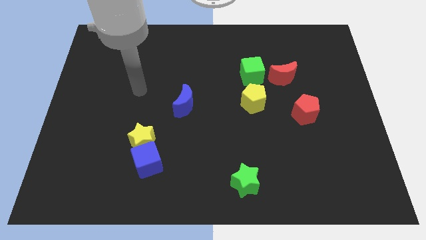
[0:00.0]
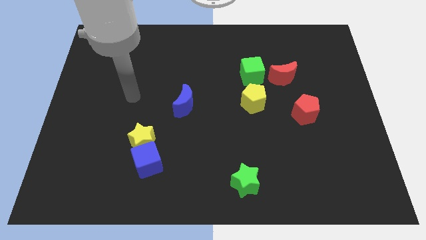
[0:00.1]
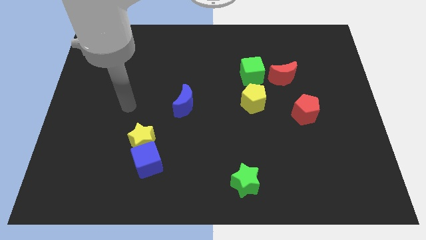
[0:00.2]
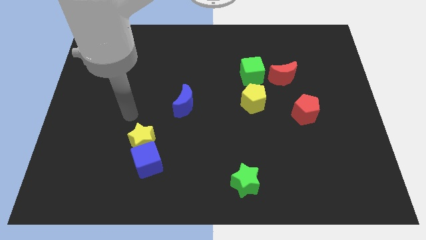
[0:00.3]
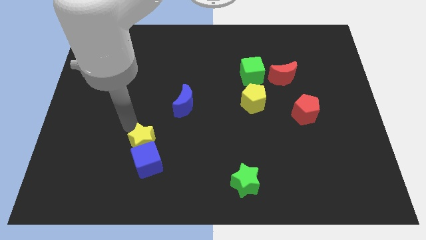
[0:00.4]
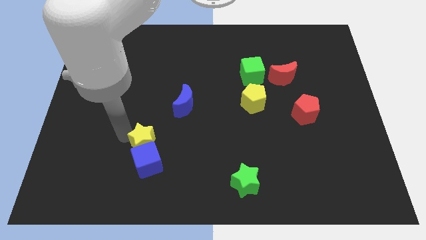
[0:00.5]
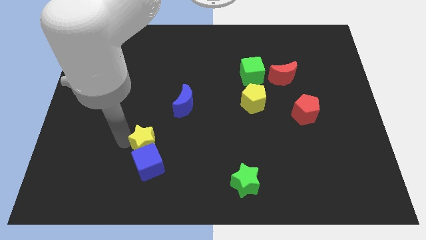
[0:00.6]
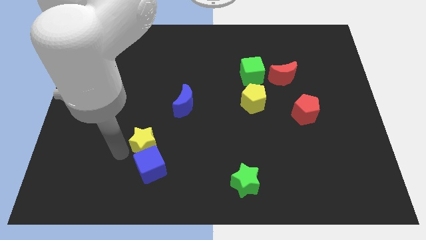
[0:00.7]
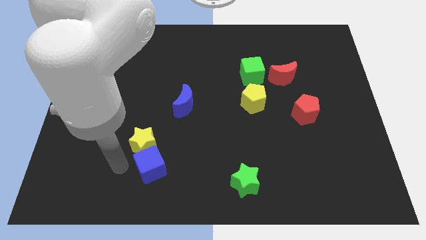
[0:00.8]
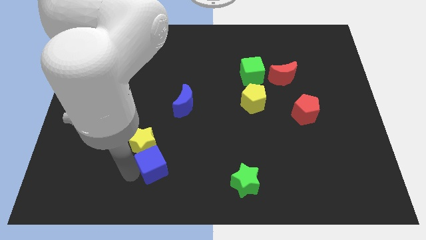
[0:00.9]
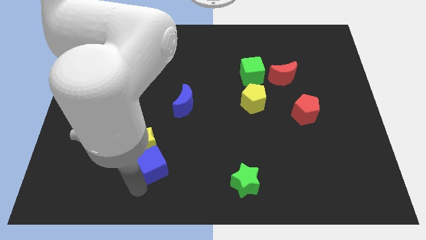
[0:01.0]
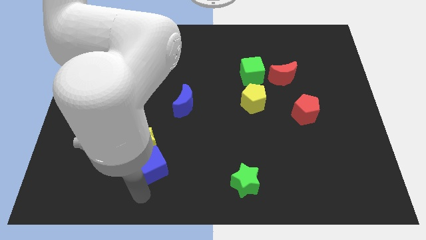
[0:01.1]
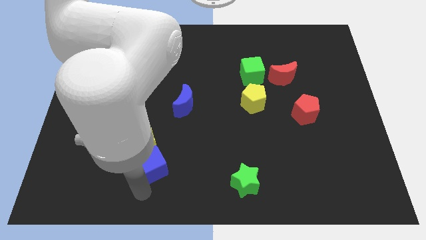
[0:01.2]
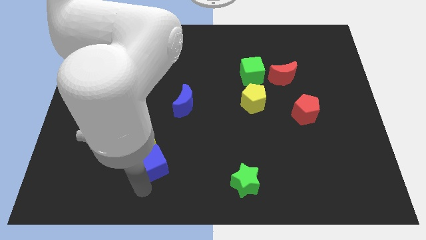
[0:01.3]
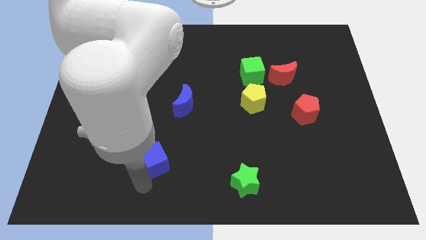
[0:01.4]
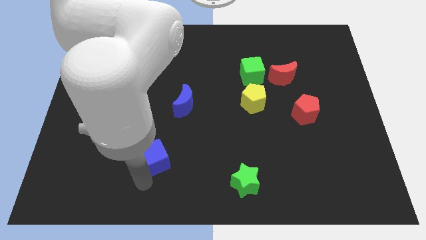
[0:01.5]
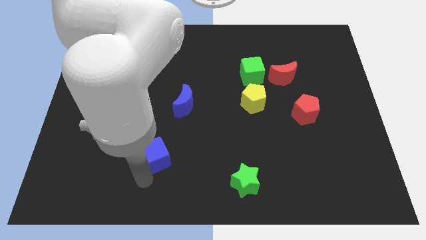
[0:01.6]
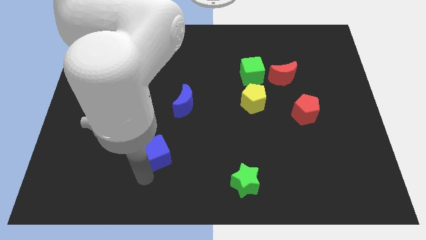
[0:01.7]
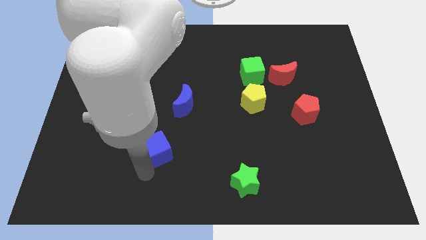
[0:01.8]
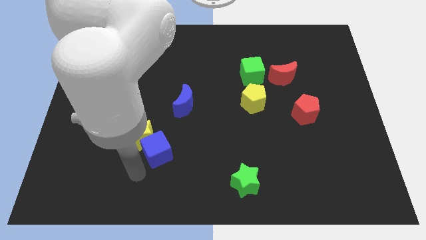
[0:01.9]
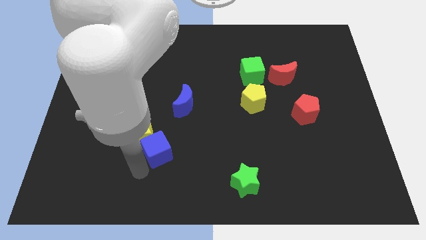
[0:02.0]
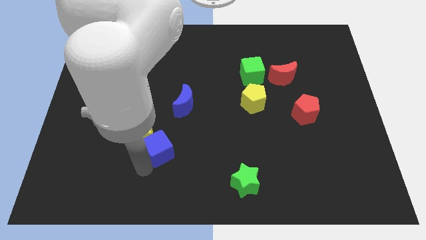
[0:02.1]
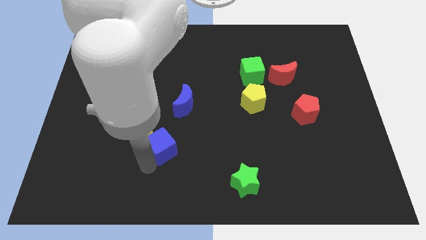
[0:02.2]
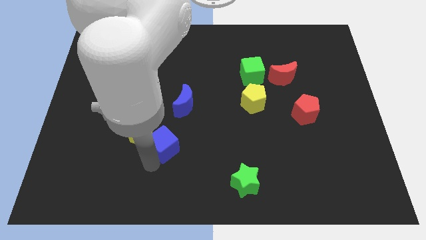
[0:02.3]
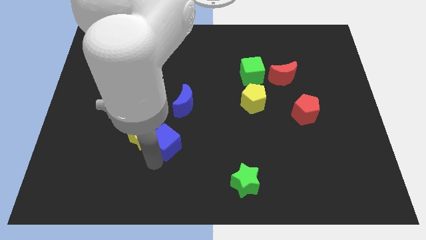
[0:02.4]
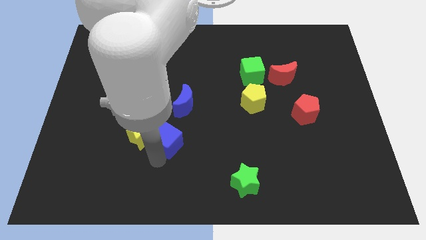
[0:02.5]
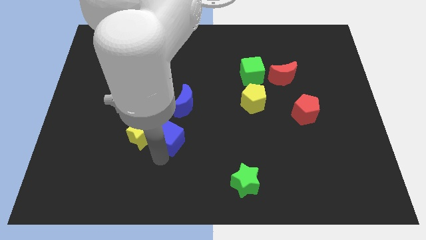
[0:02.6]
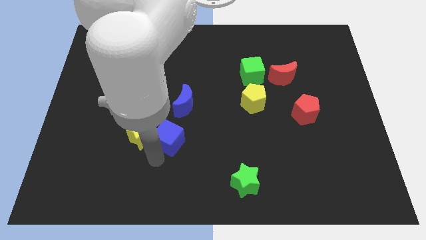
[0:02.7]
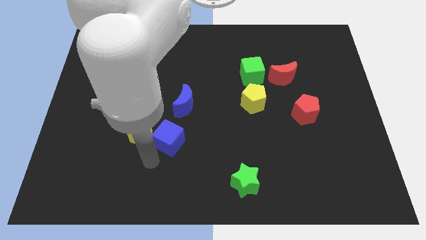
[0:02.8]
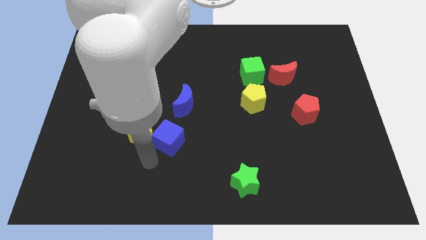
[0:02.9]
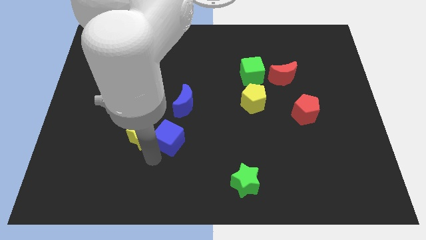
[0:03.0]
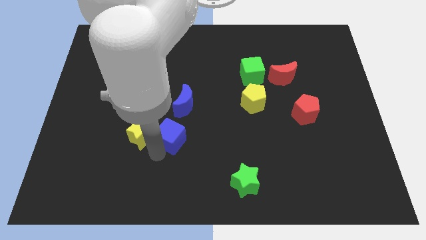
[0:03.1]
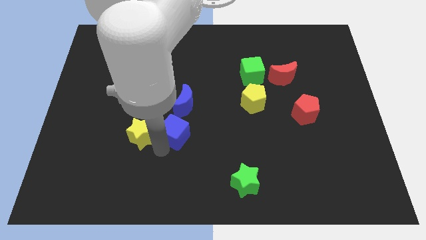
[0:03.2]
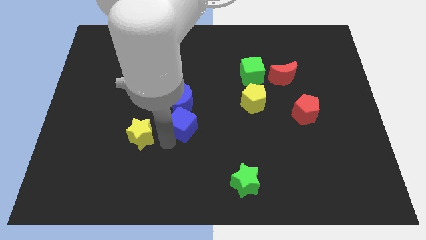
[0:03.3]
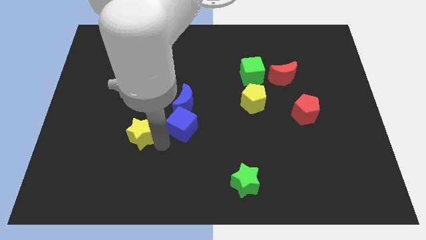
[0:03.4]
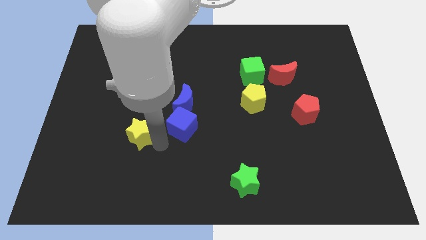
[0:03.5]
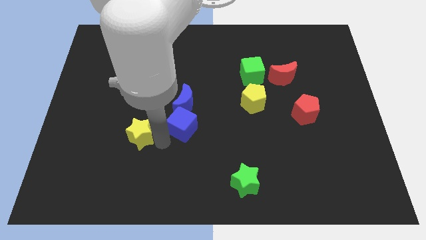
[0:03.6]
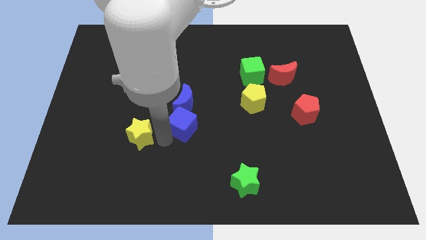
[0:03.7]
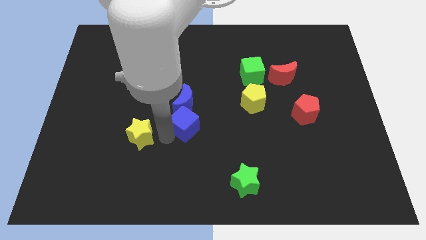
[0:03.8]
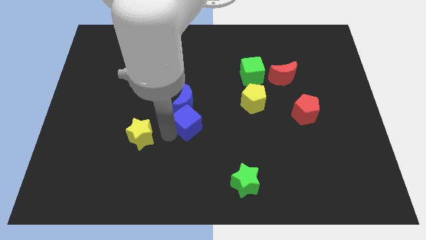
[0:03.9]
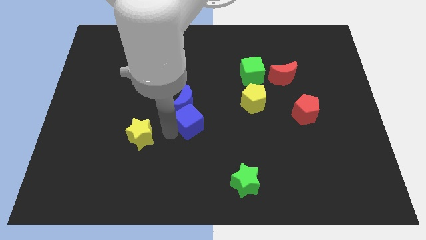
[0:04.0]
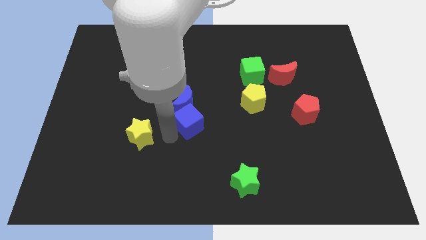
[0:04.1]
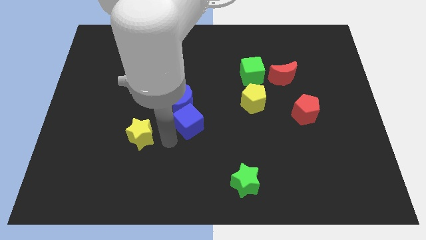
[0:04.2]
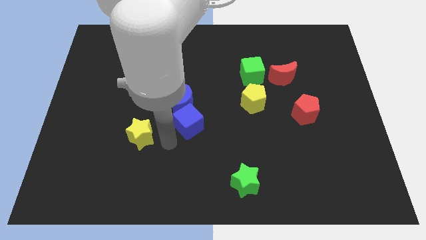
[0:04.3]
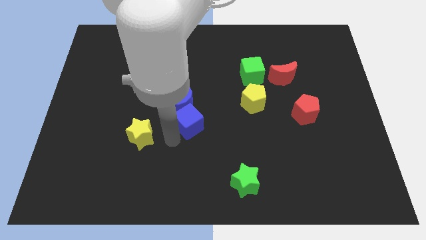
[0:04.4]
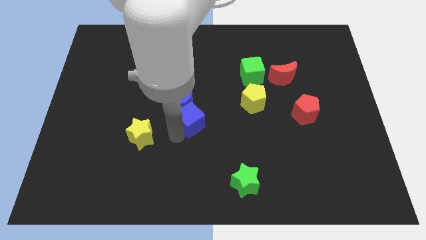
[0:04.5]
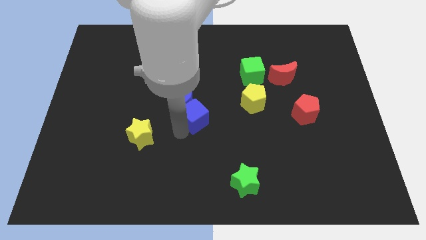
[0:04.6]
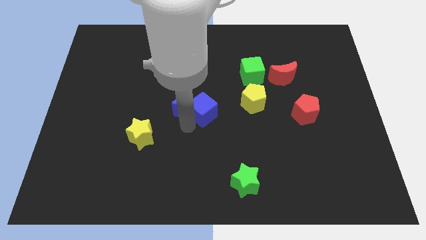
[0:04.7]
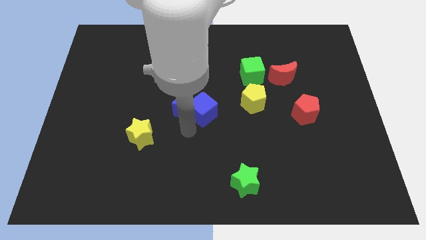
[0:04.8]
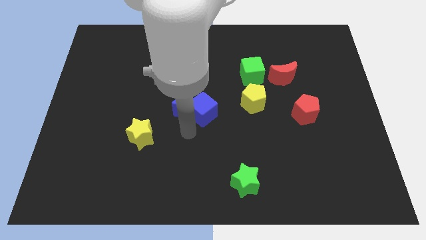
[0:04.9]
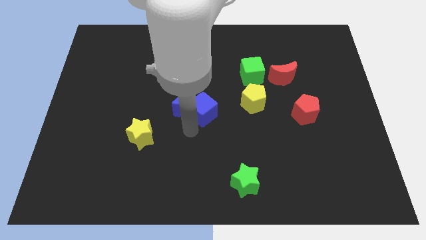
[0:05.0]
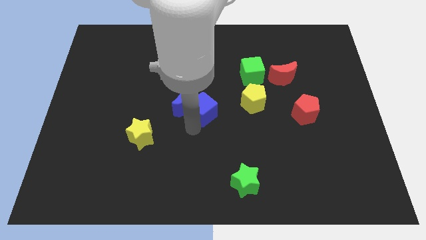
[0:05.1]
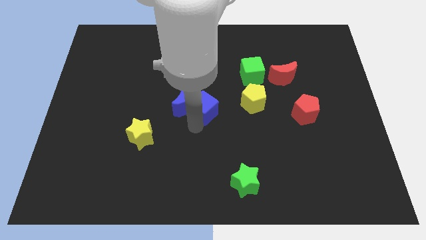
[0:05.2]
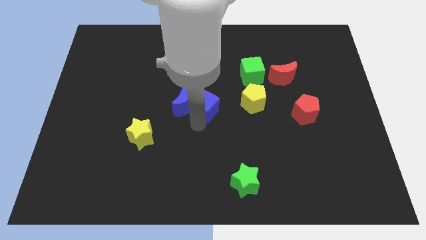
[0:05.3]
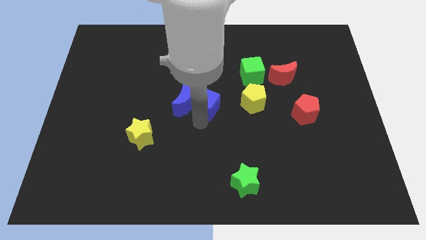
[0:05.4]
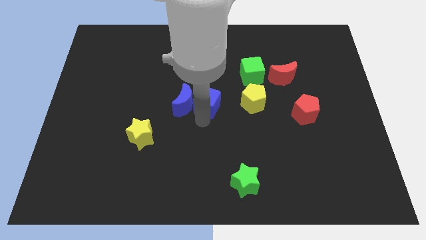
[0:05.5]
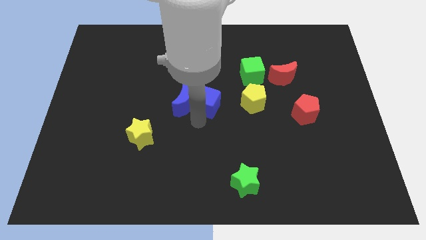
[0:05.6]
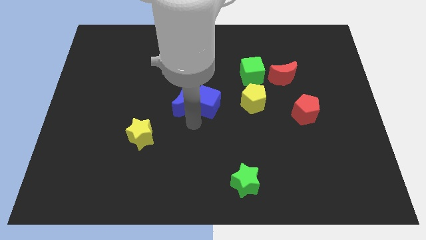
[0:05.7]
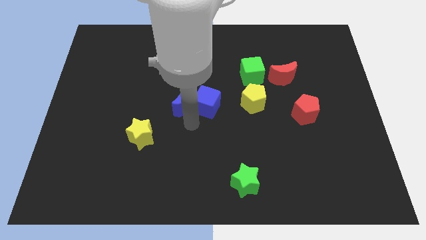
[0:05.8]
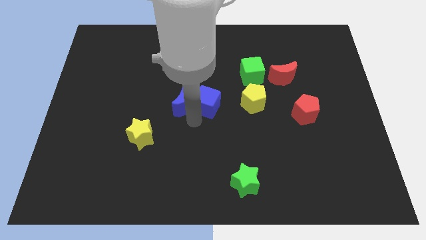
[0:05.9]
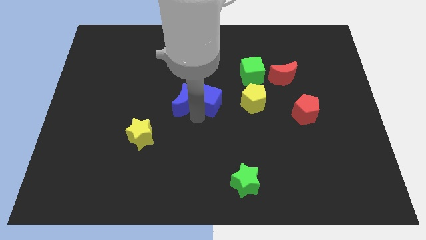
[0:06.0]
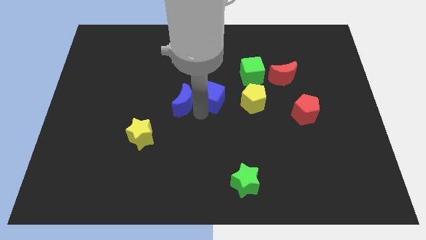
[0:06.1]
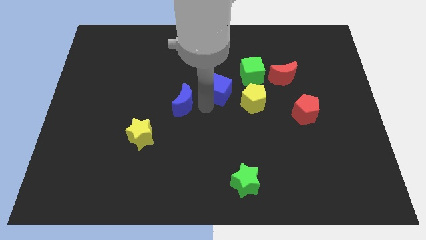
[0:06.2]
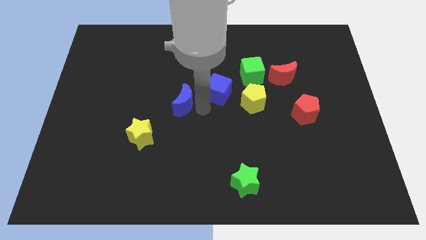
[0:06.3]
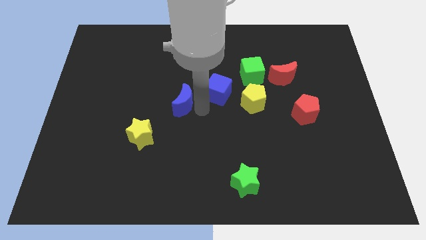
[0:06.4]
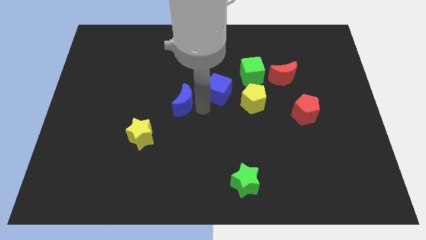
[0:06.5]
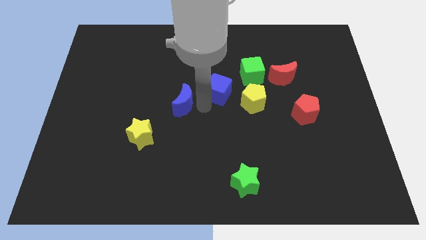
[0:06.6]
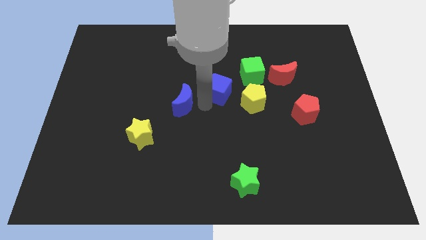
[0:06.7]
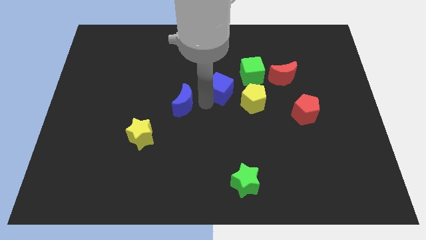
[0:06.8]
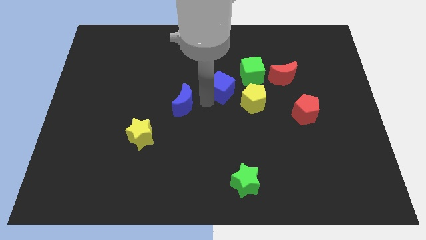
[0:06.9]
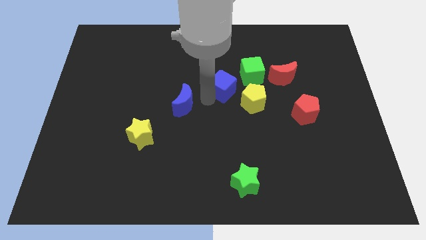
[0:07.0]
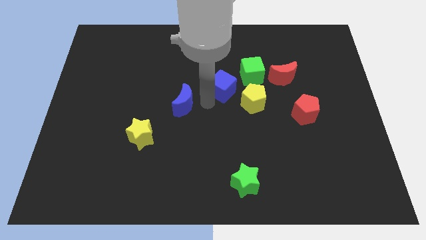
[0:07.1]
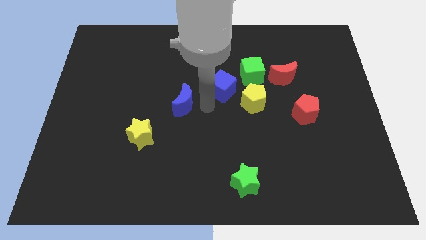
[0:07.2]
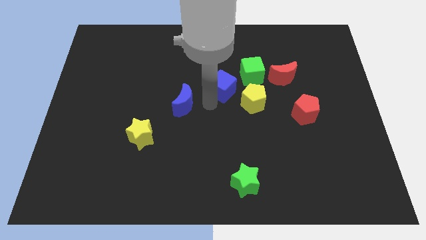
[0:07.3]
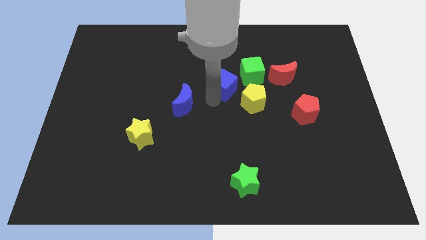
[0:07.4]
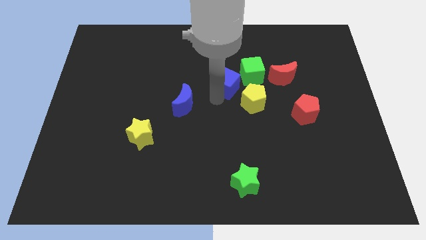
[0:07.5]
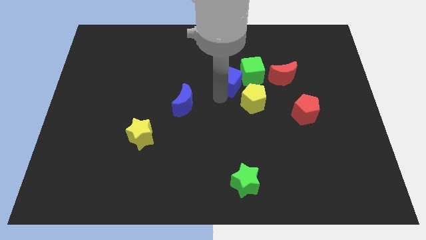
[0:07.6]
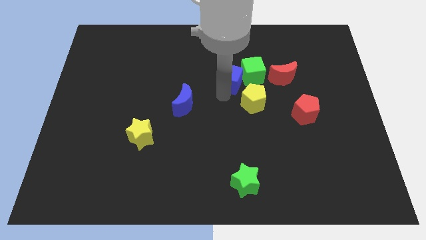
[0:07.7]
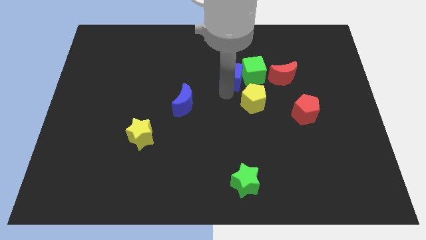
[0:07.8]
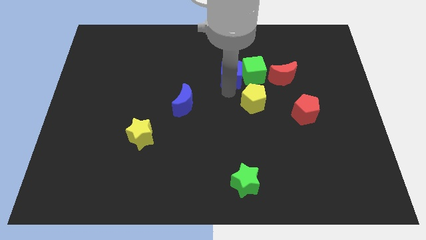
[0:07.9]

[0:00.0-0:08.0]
push the blue cube diagonally up and to the left of the green cube

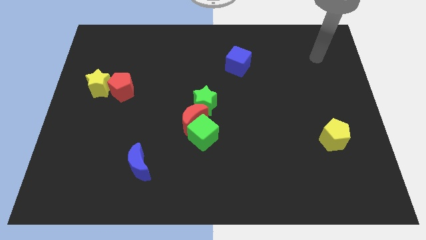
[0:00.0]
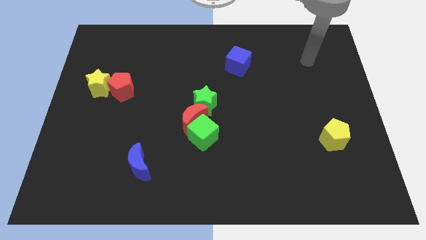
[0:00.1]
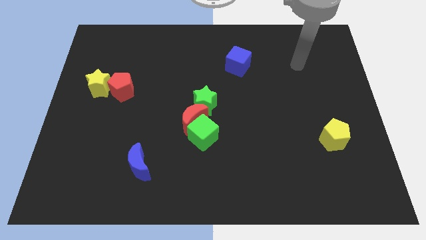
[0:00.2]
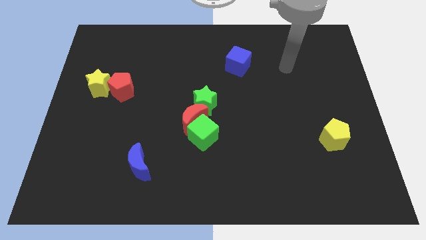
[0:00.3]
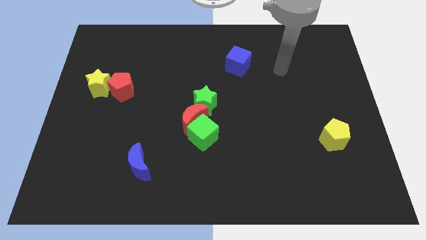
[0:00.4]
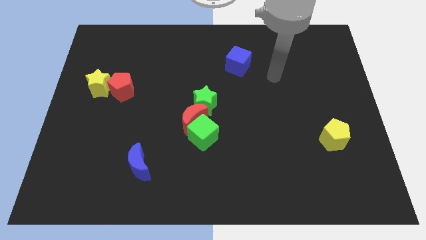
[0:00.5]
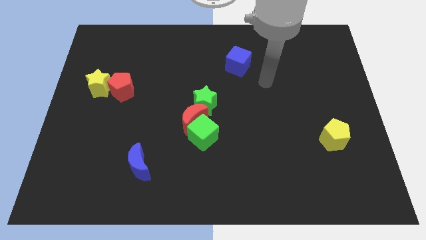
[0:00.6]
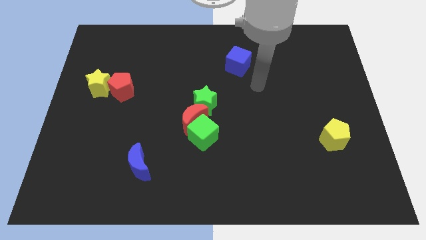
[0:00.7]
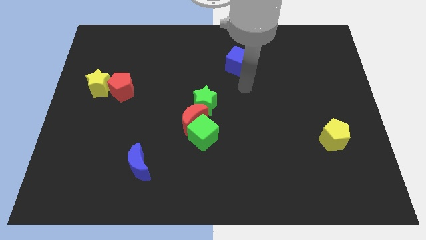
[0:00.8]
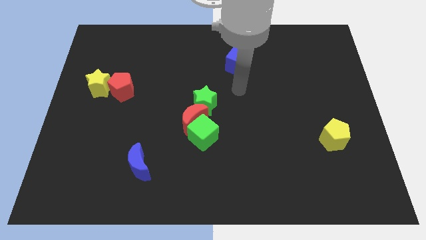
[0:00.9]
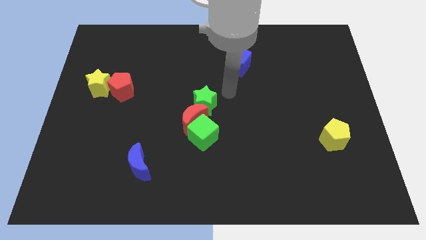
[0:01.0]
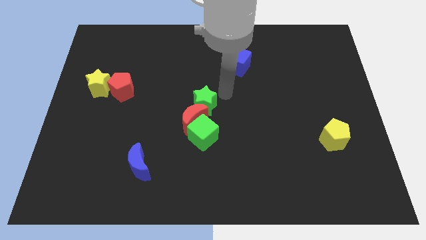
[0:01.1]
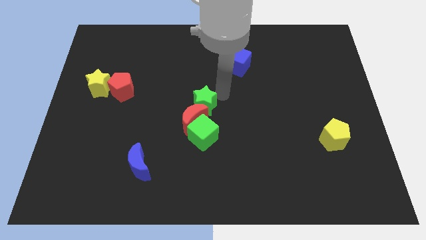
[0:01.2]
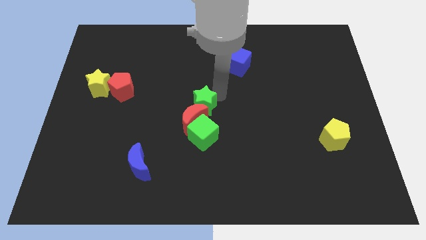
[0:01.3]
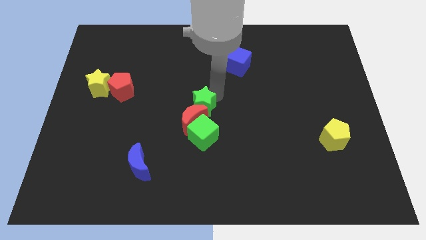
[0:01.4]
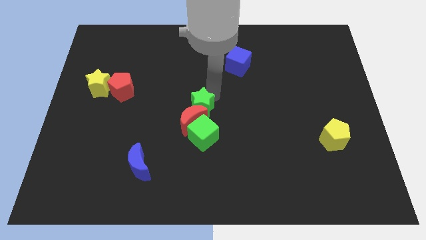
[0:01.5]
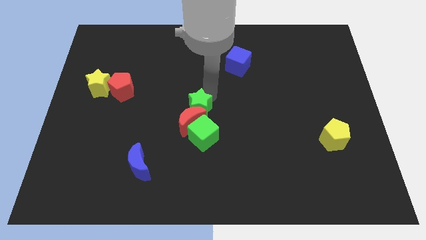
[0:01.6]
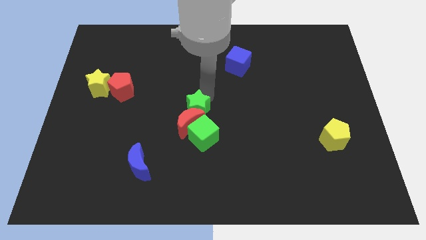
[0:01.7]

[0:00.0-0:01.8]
move the green star to the top left of the green cube
